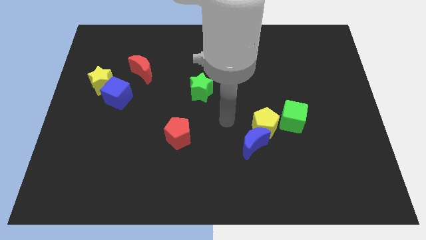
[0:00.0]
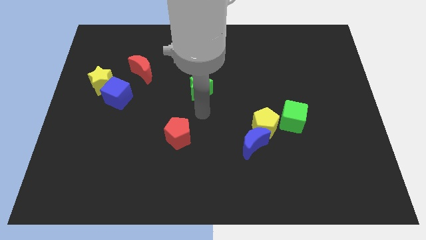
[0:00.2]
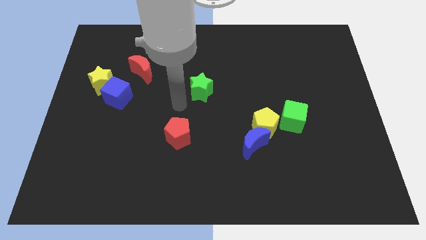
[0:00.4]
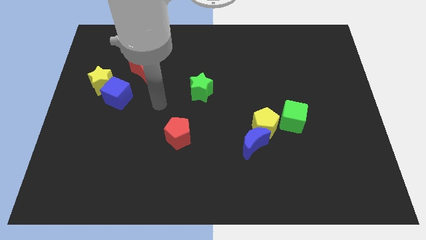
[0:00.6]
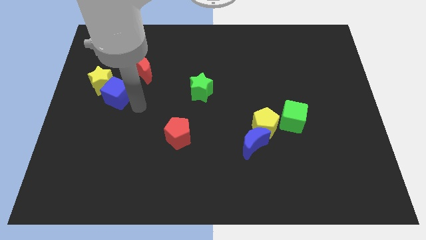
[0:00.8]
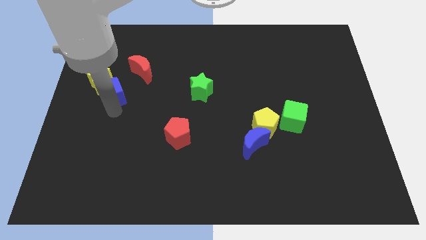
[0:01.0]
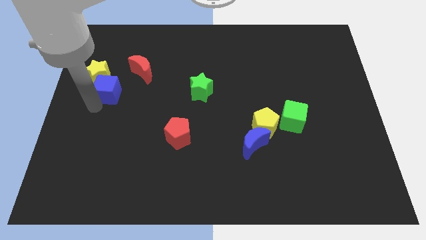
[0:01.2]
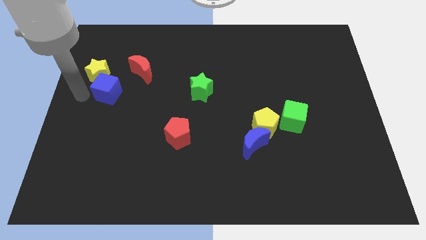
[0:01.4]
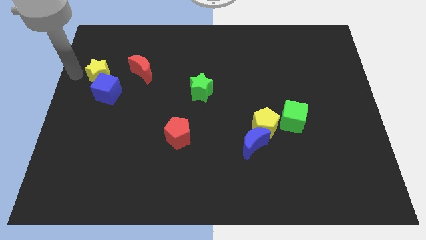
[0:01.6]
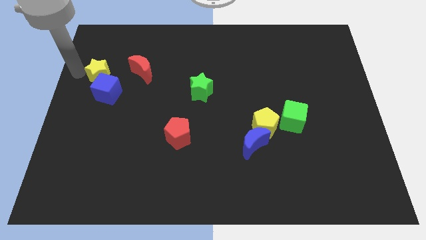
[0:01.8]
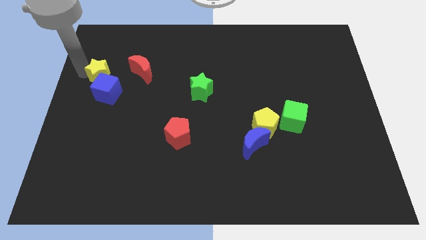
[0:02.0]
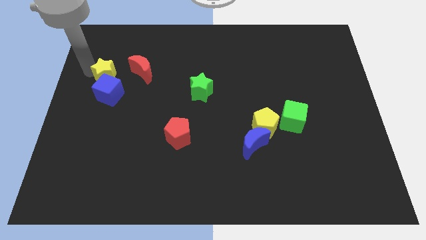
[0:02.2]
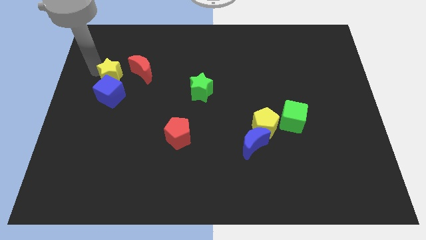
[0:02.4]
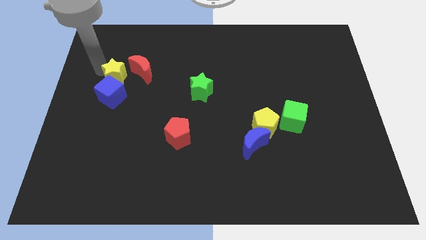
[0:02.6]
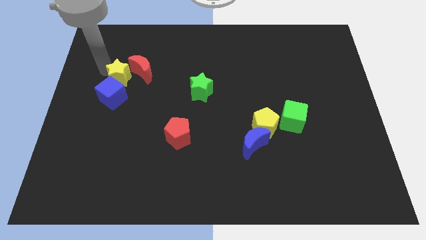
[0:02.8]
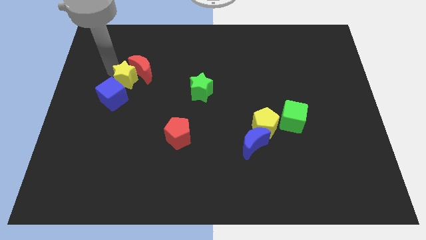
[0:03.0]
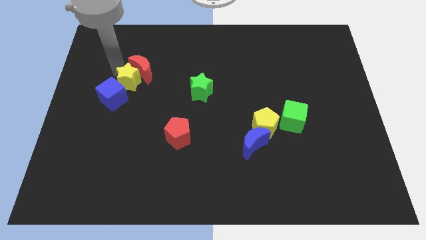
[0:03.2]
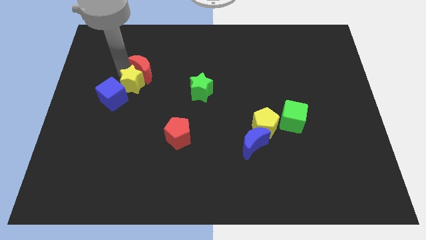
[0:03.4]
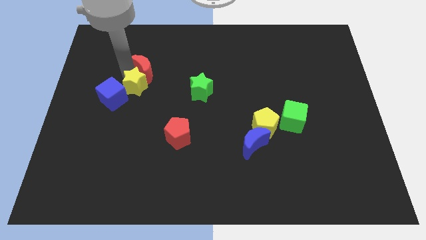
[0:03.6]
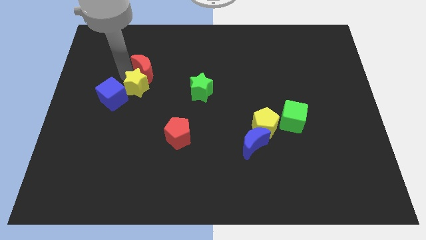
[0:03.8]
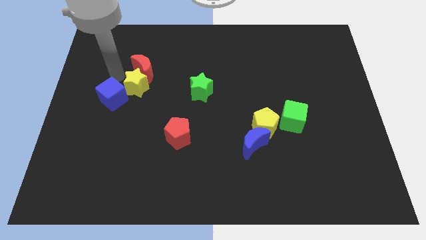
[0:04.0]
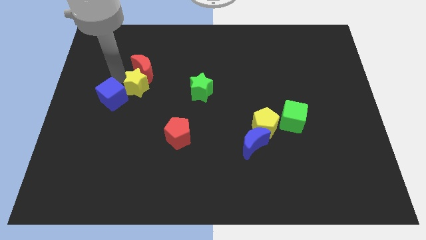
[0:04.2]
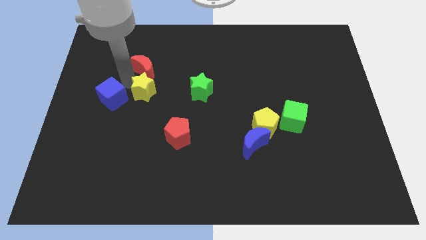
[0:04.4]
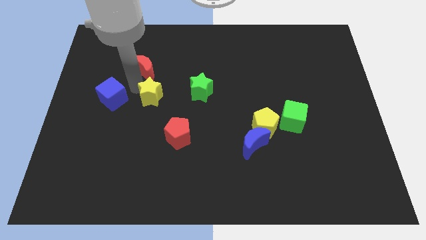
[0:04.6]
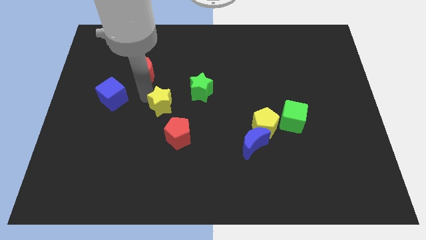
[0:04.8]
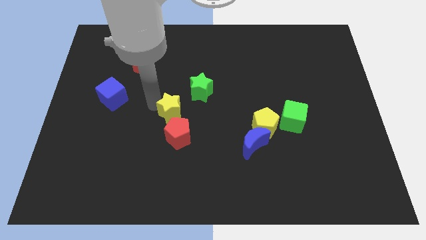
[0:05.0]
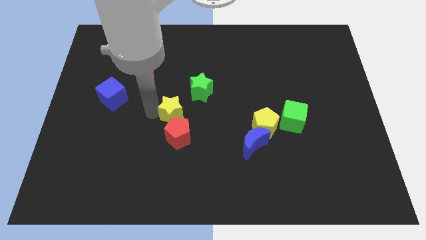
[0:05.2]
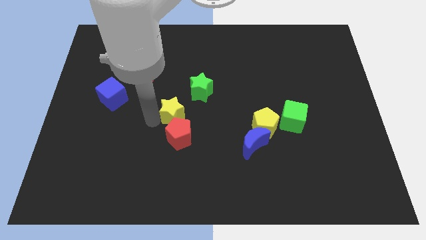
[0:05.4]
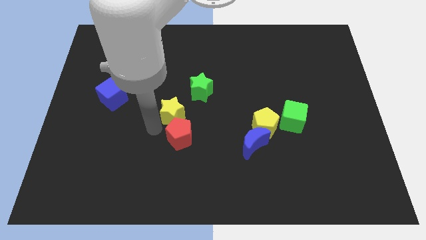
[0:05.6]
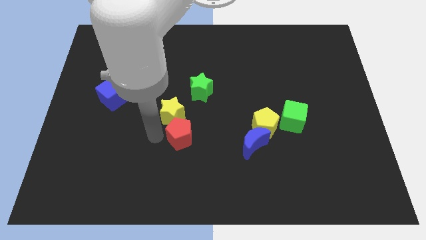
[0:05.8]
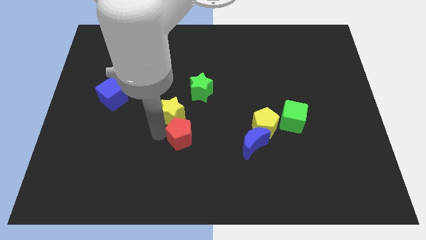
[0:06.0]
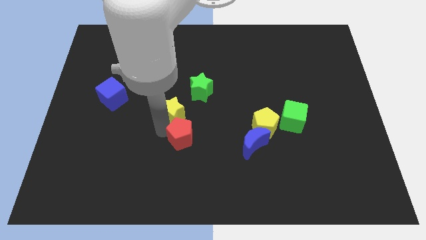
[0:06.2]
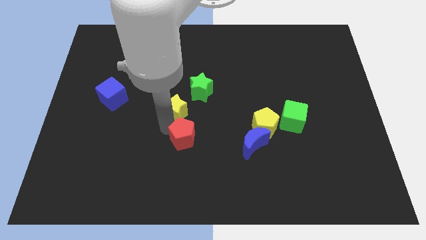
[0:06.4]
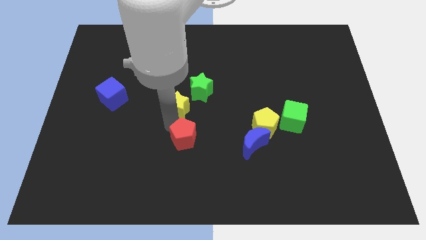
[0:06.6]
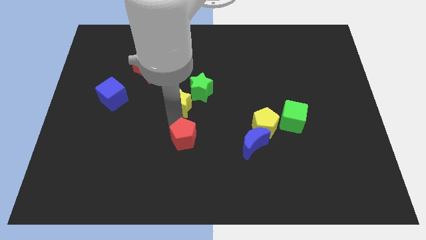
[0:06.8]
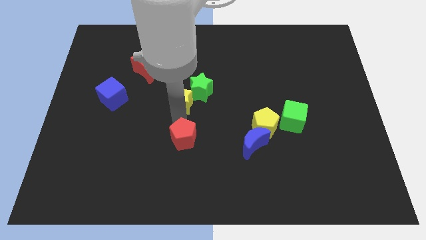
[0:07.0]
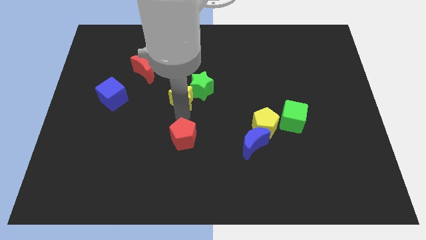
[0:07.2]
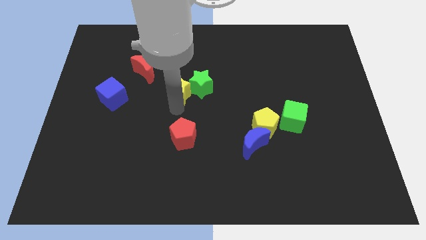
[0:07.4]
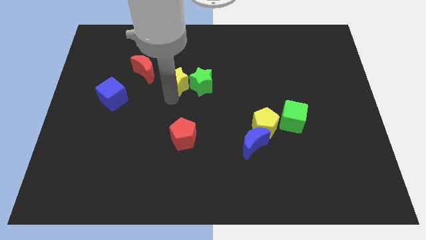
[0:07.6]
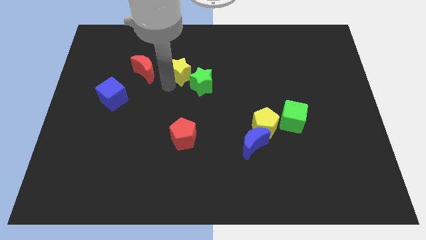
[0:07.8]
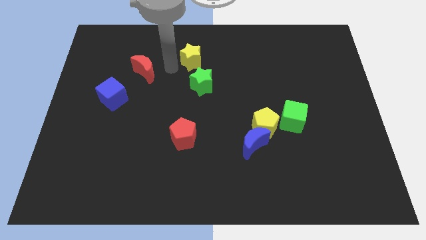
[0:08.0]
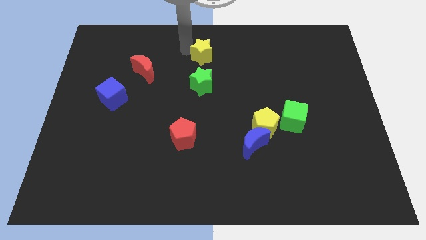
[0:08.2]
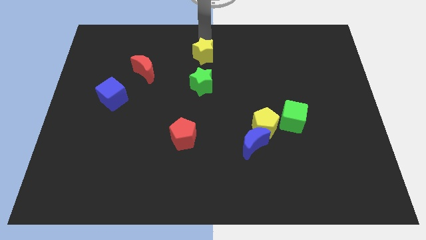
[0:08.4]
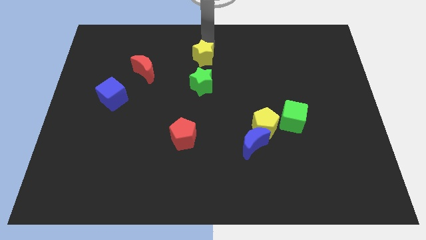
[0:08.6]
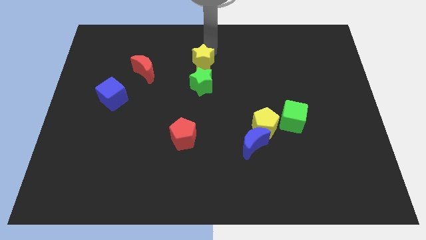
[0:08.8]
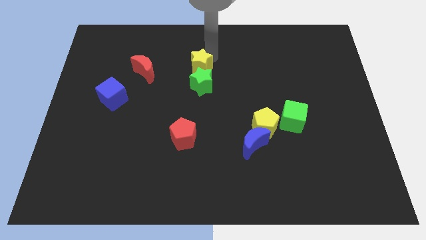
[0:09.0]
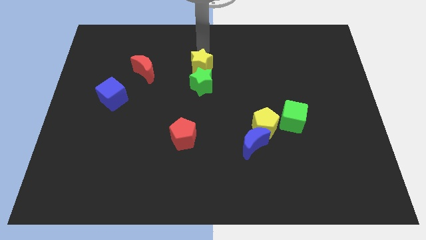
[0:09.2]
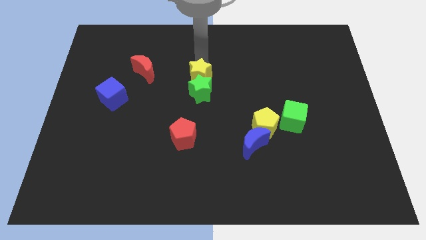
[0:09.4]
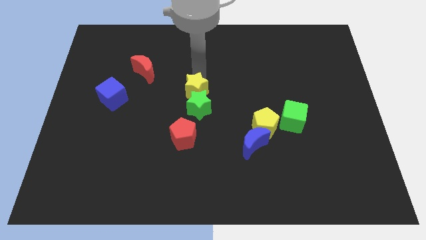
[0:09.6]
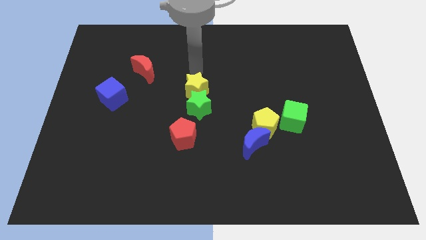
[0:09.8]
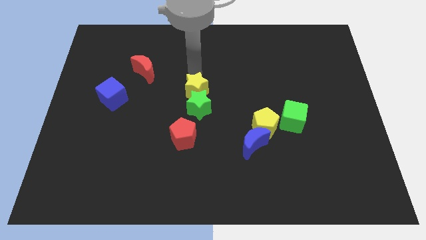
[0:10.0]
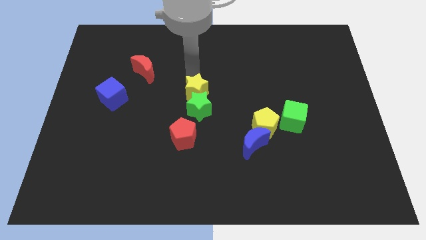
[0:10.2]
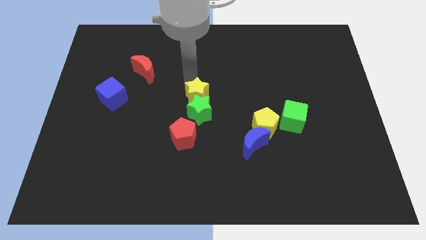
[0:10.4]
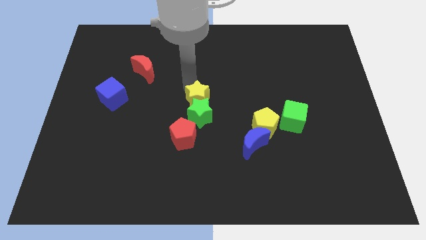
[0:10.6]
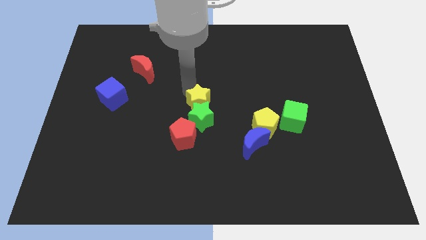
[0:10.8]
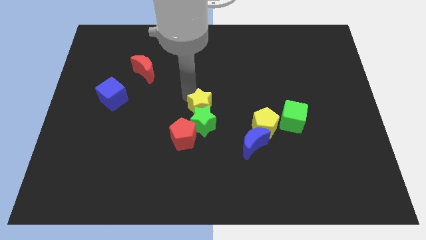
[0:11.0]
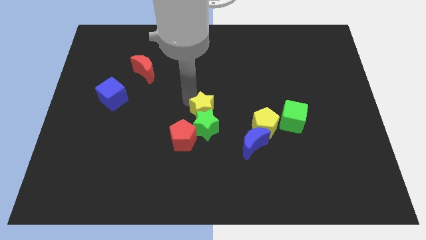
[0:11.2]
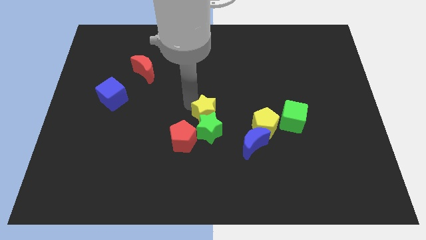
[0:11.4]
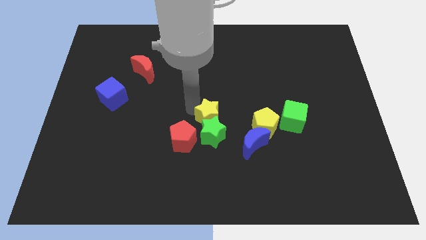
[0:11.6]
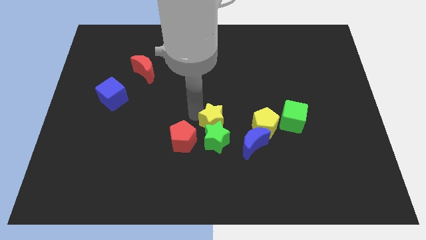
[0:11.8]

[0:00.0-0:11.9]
put the yellow star to the right of the red pentagon
